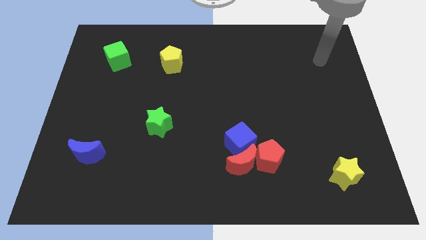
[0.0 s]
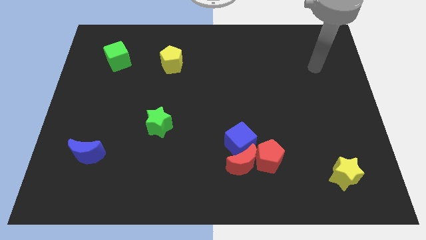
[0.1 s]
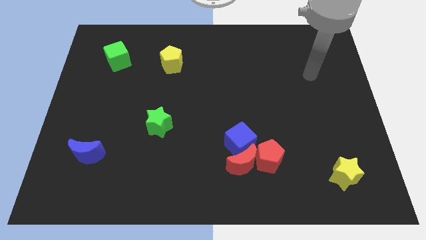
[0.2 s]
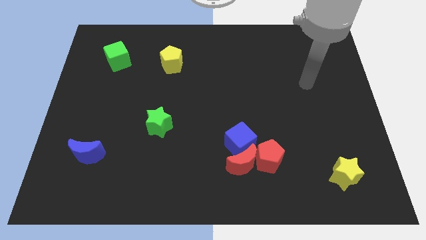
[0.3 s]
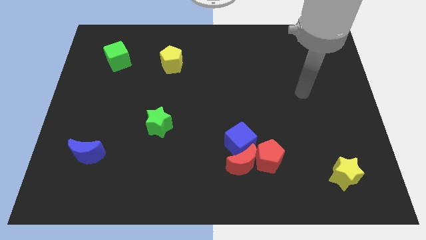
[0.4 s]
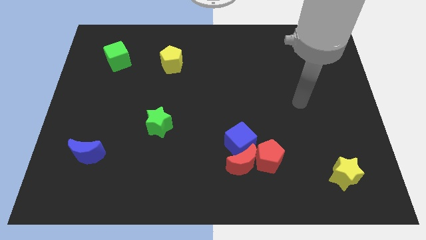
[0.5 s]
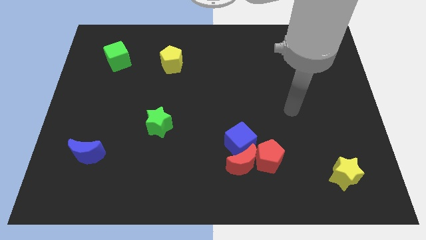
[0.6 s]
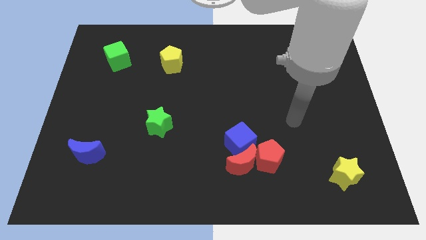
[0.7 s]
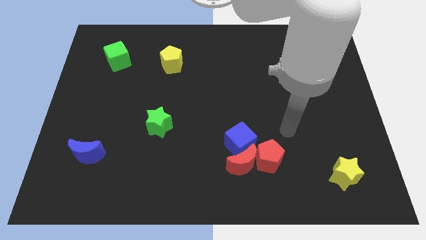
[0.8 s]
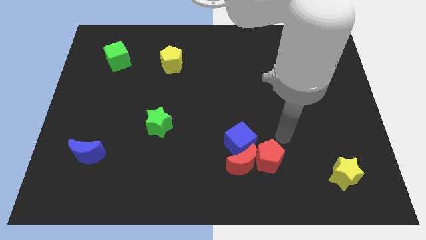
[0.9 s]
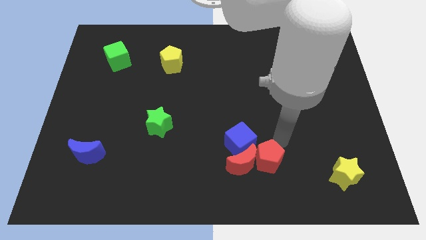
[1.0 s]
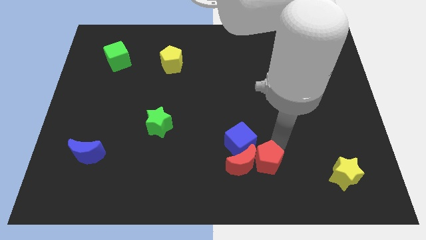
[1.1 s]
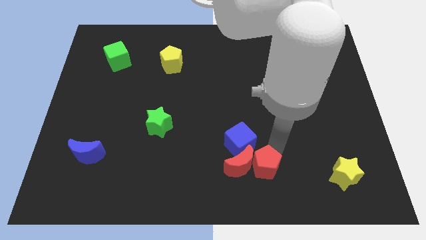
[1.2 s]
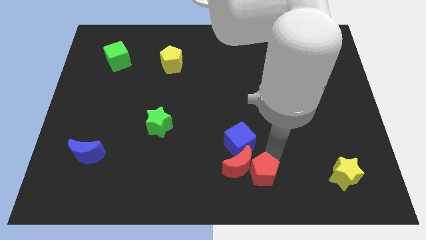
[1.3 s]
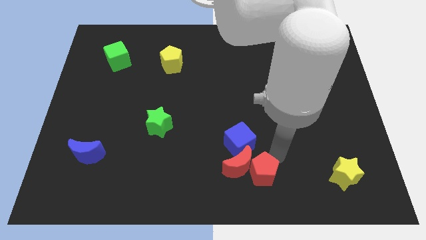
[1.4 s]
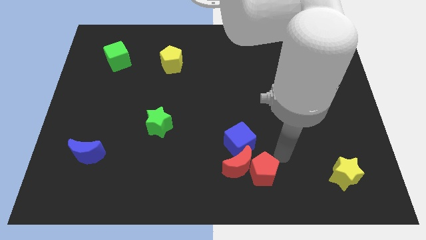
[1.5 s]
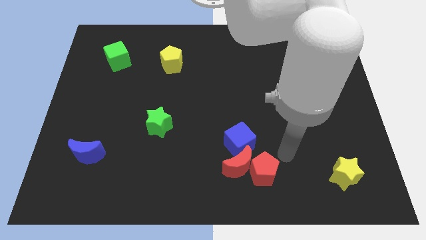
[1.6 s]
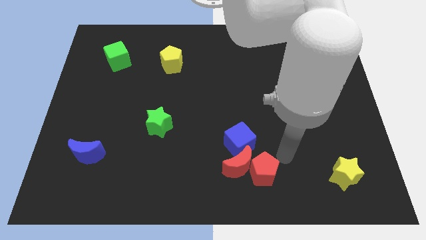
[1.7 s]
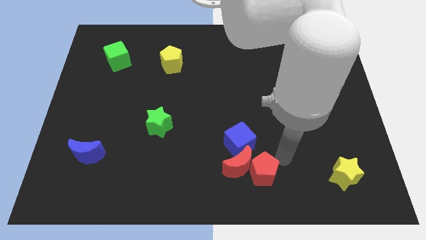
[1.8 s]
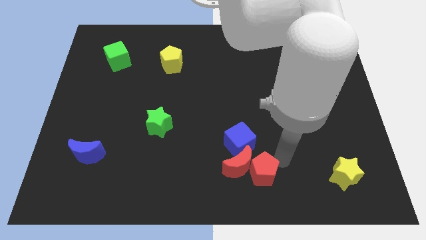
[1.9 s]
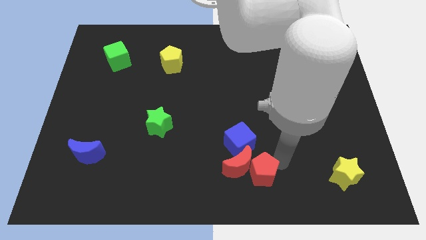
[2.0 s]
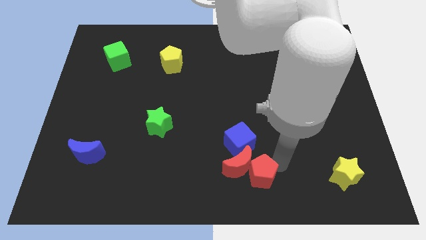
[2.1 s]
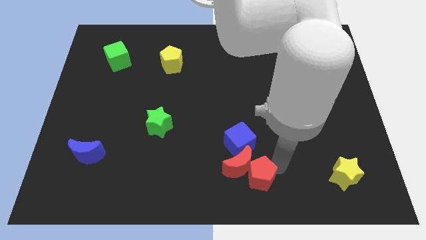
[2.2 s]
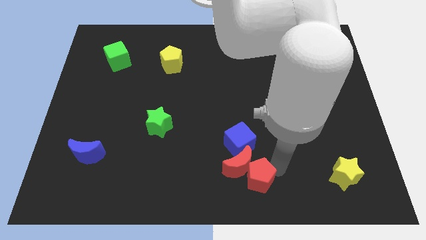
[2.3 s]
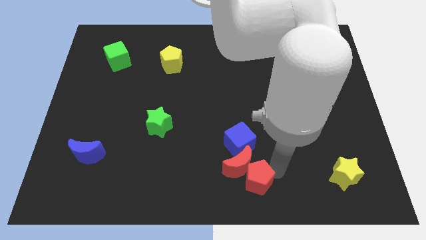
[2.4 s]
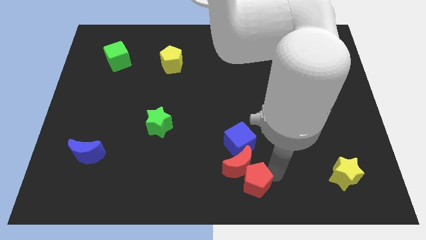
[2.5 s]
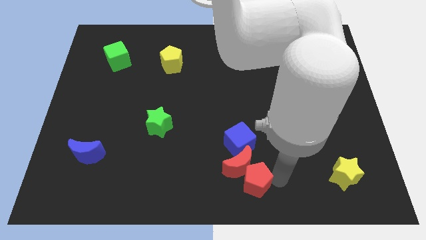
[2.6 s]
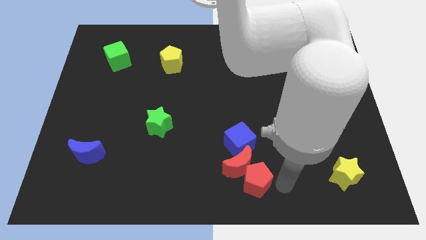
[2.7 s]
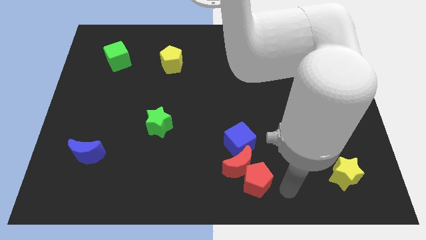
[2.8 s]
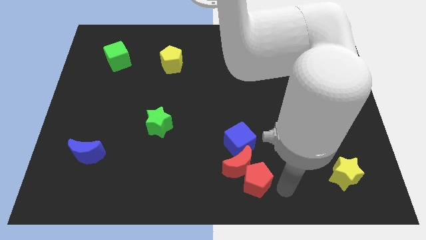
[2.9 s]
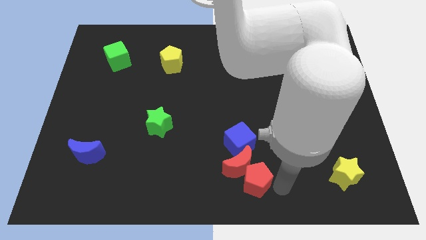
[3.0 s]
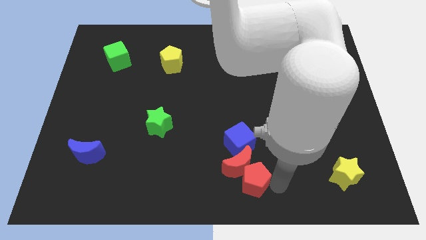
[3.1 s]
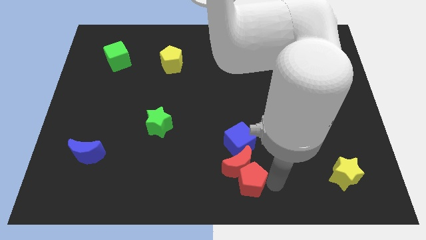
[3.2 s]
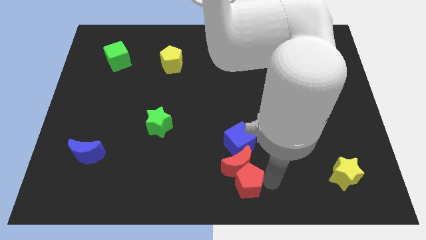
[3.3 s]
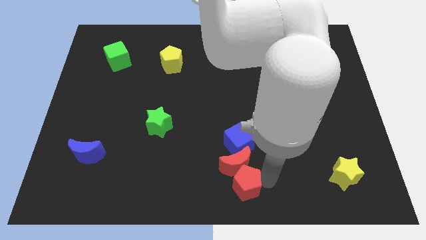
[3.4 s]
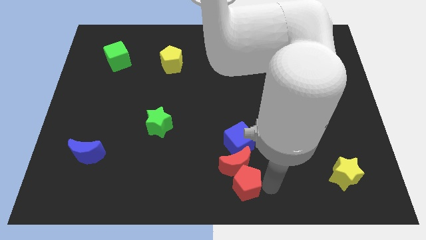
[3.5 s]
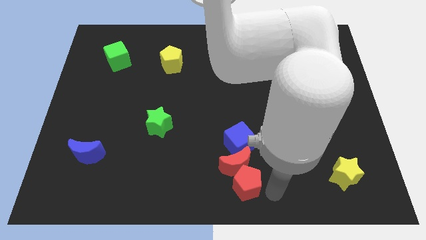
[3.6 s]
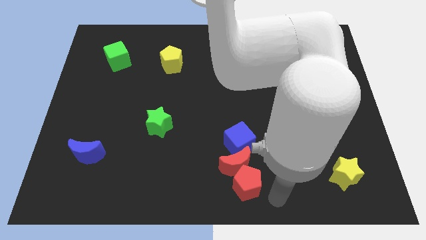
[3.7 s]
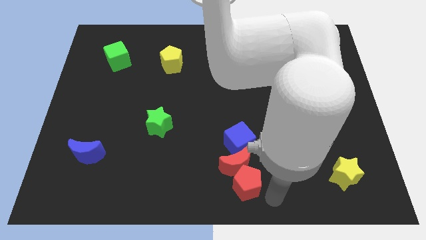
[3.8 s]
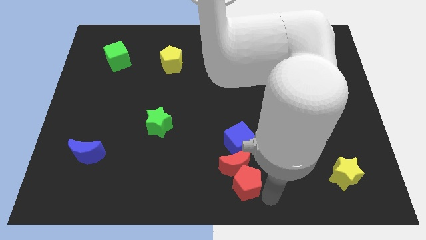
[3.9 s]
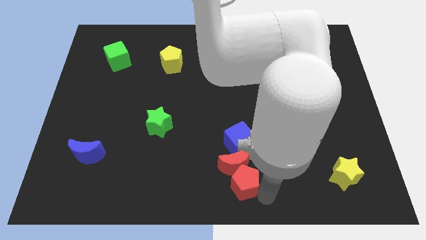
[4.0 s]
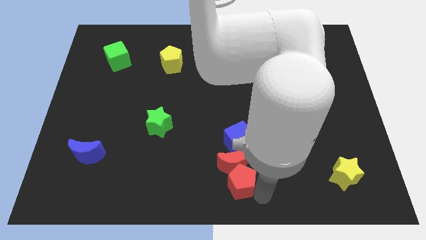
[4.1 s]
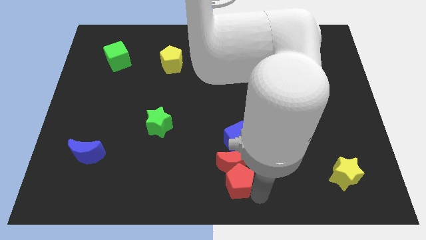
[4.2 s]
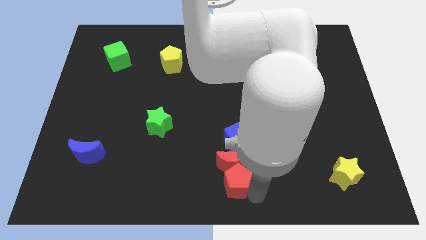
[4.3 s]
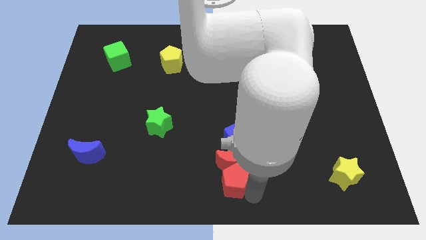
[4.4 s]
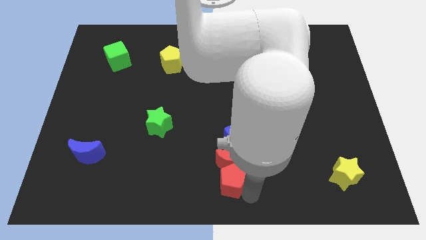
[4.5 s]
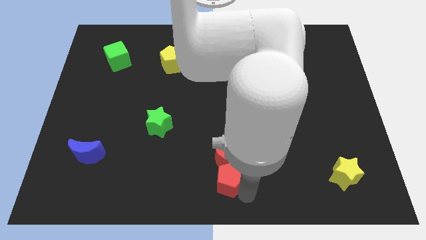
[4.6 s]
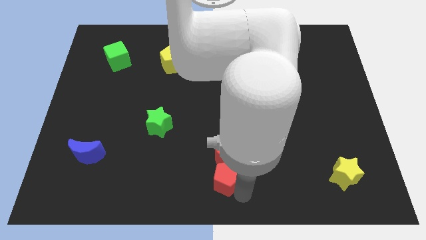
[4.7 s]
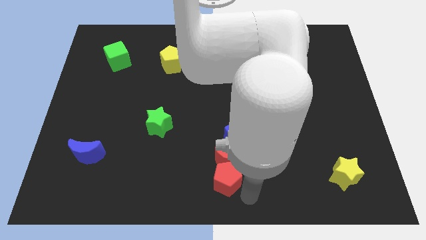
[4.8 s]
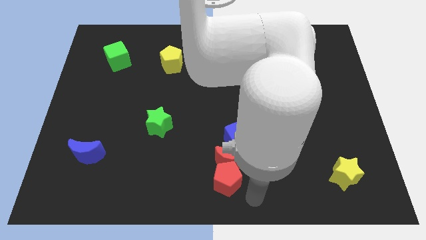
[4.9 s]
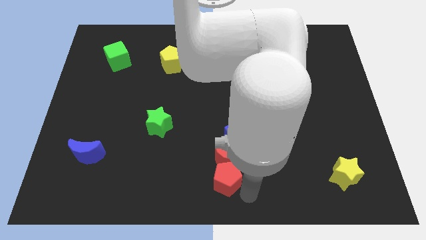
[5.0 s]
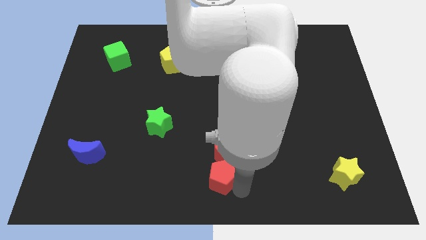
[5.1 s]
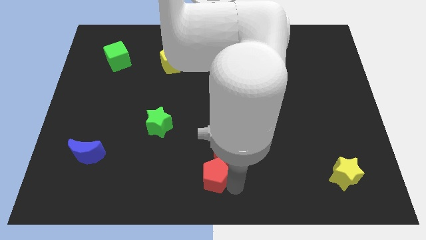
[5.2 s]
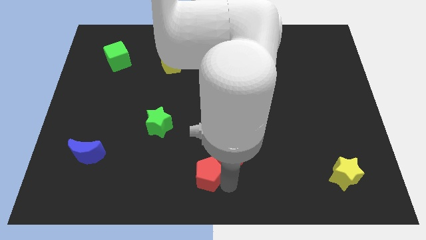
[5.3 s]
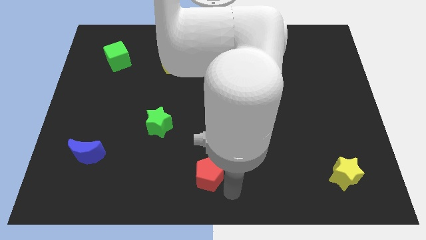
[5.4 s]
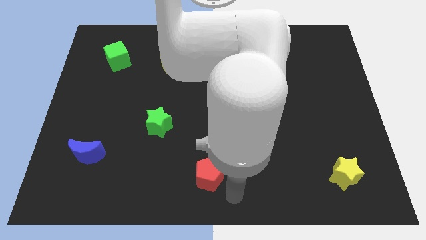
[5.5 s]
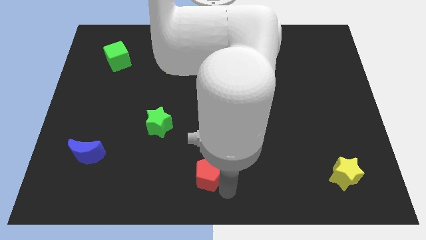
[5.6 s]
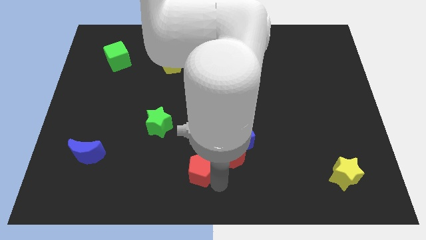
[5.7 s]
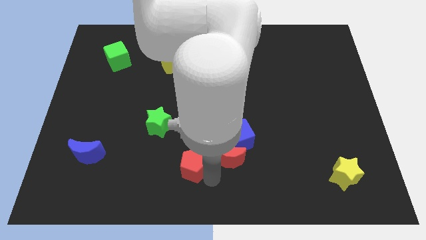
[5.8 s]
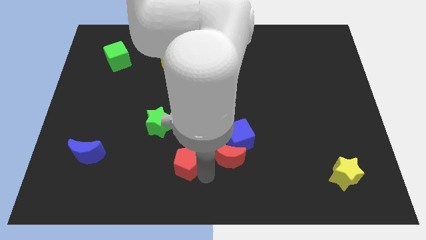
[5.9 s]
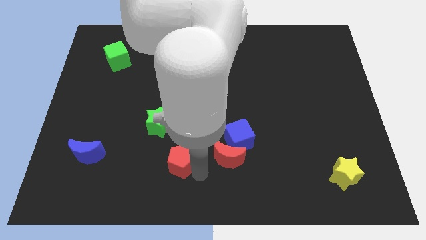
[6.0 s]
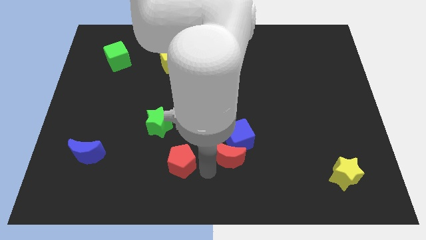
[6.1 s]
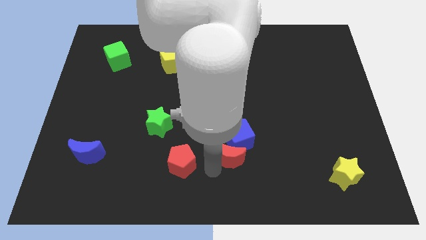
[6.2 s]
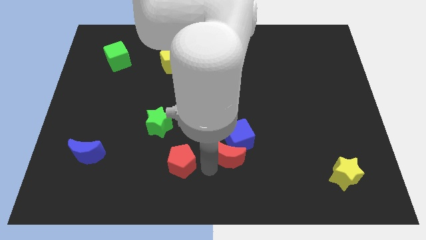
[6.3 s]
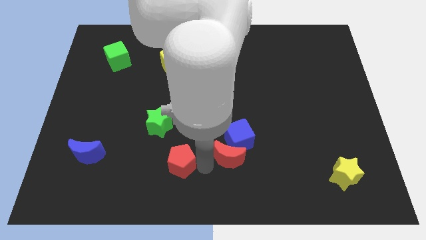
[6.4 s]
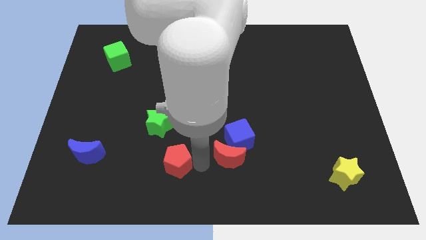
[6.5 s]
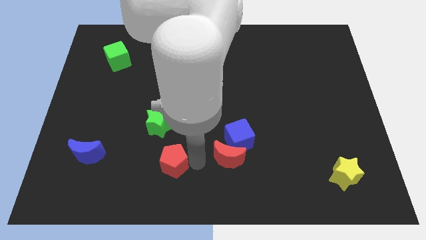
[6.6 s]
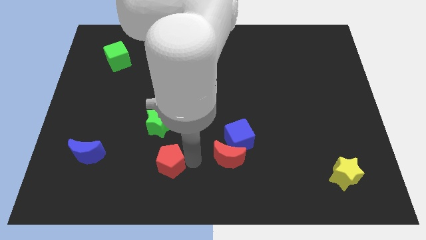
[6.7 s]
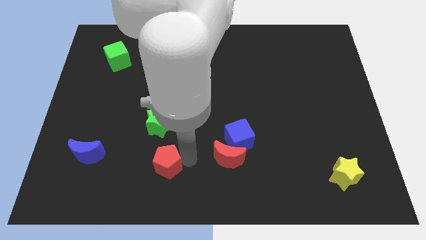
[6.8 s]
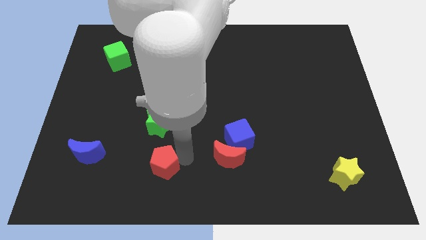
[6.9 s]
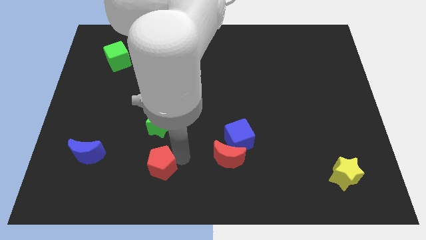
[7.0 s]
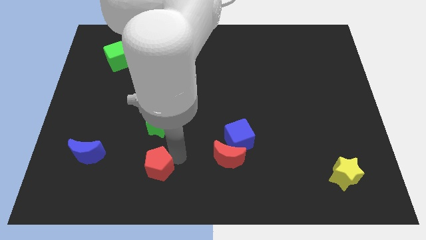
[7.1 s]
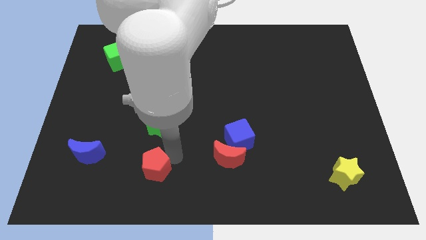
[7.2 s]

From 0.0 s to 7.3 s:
move the red pentagon to the right of the blue moon
